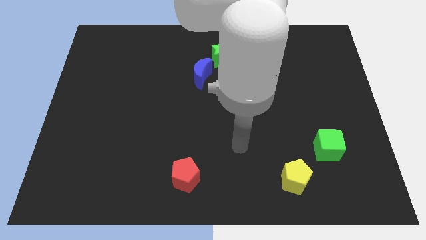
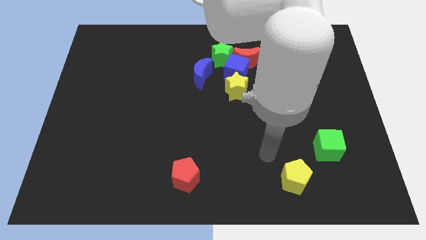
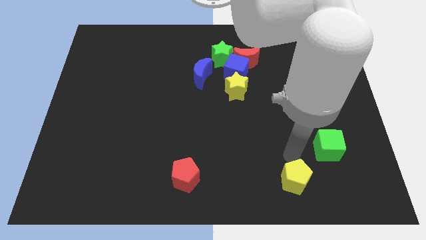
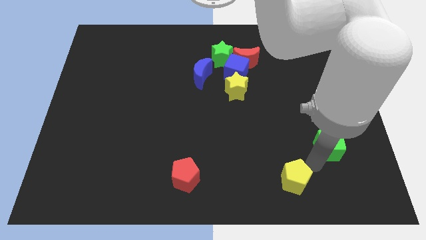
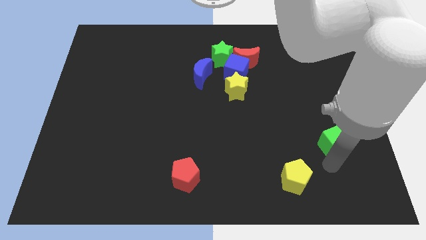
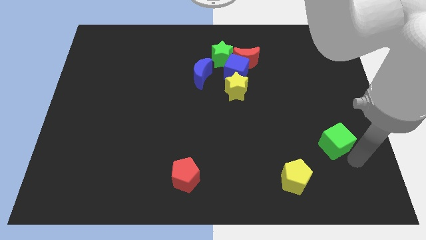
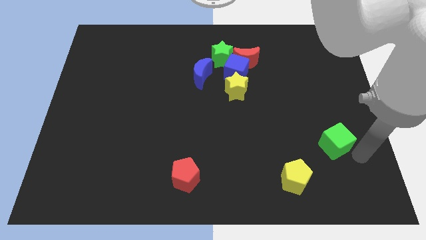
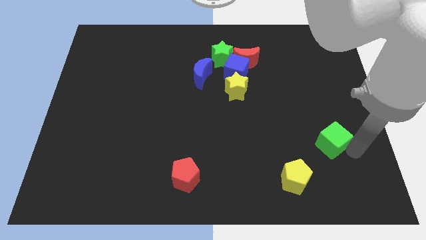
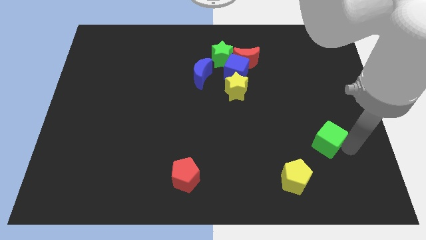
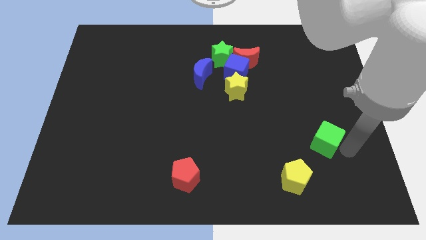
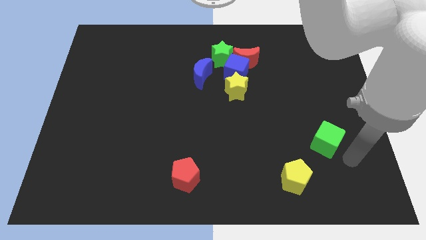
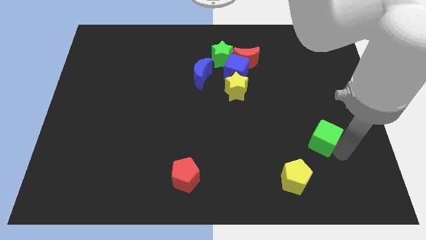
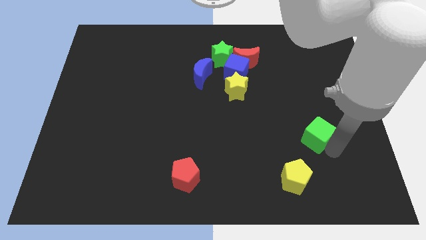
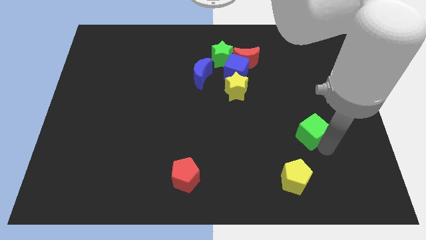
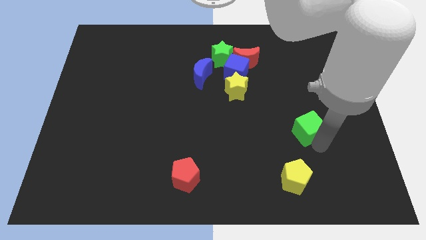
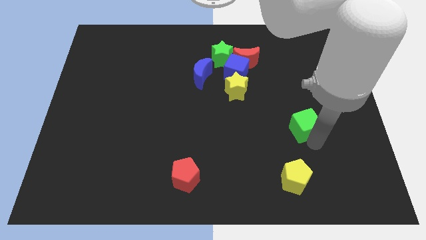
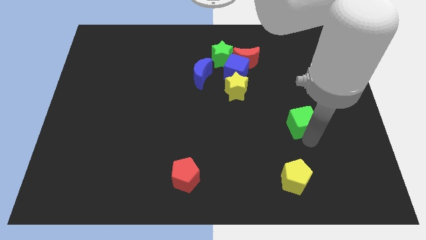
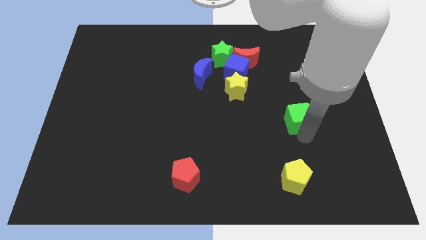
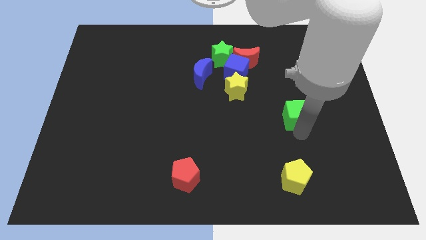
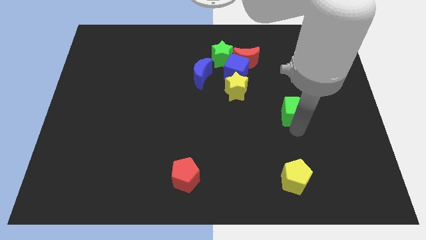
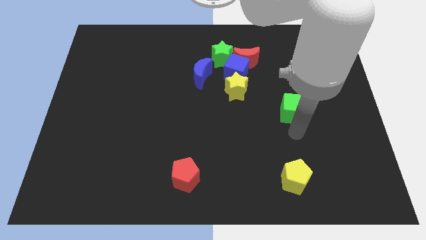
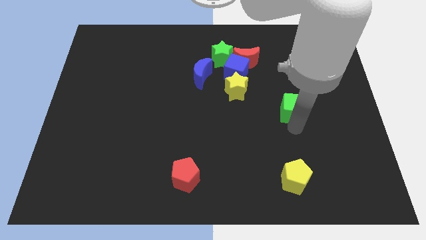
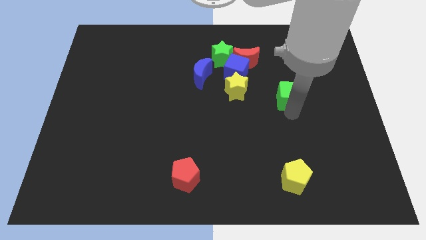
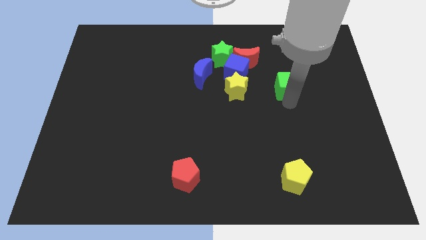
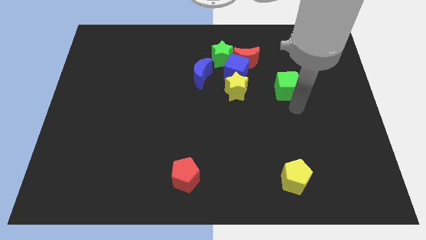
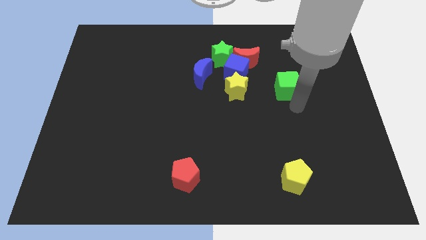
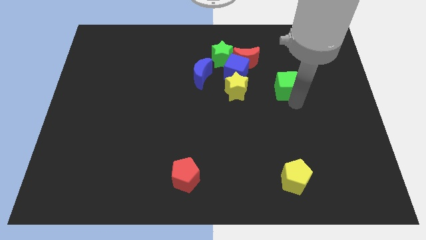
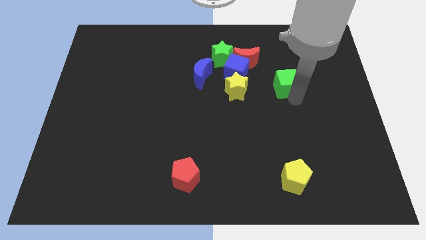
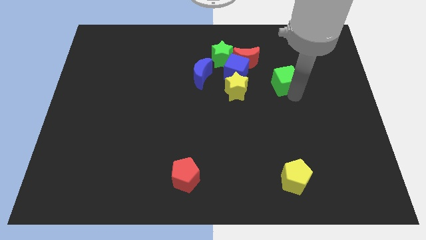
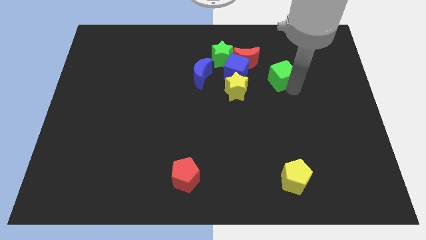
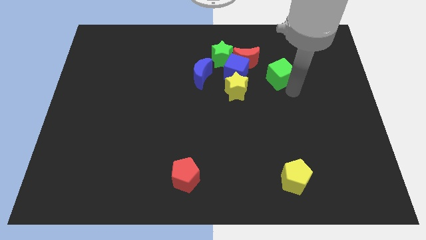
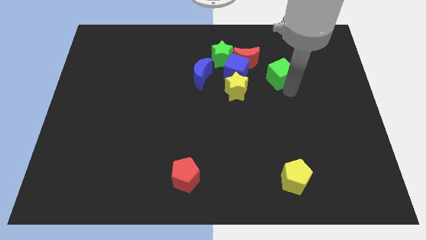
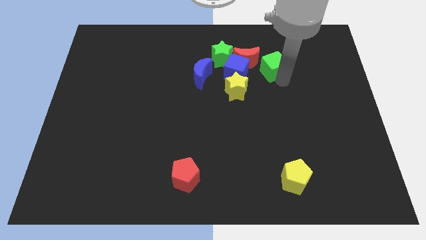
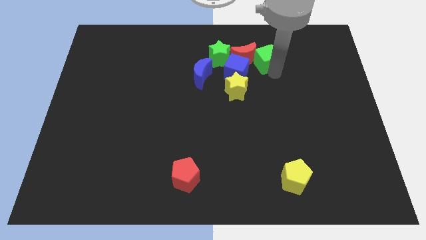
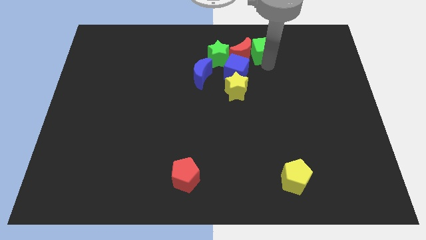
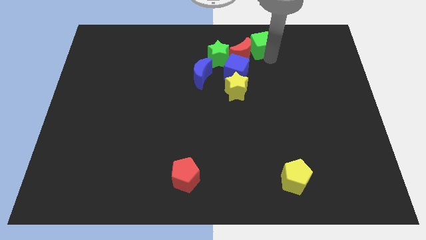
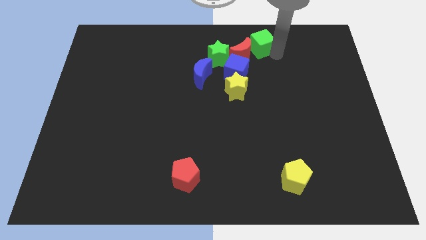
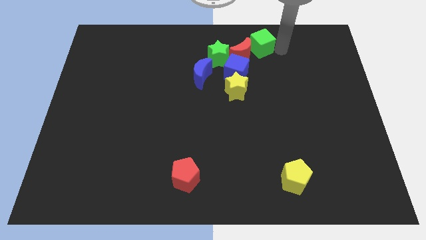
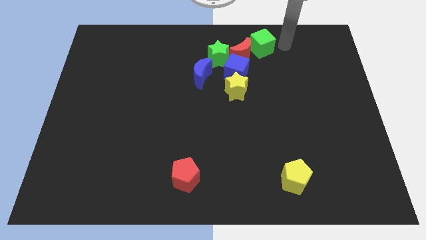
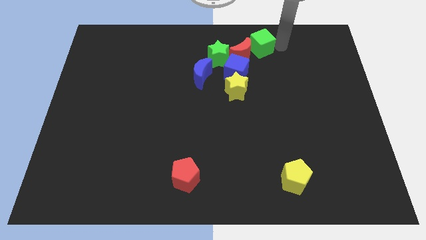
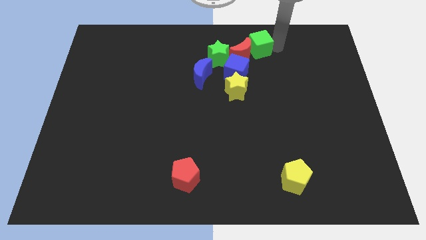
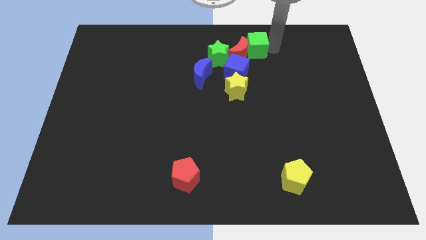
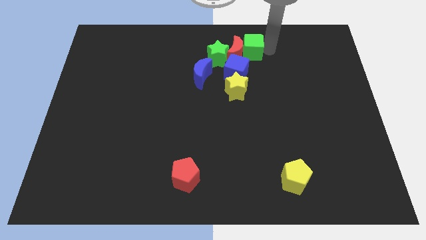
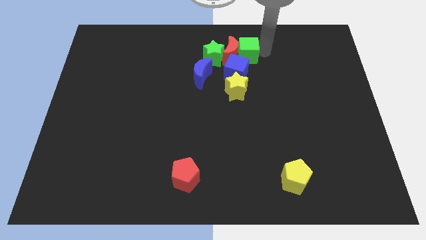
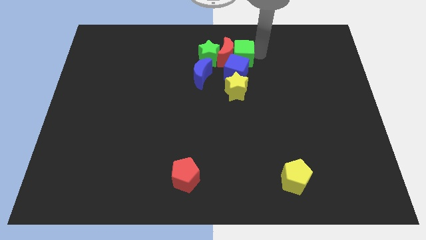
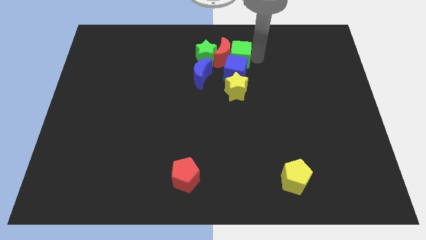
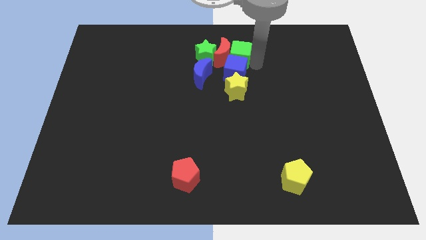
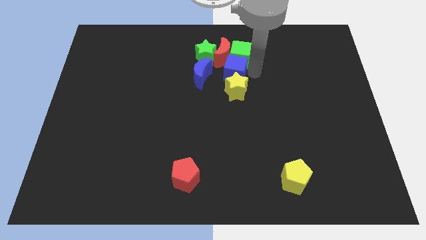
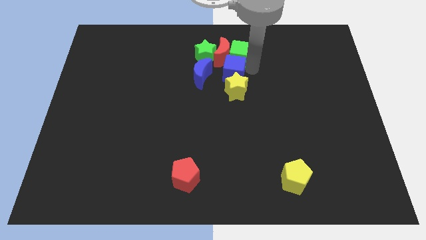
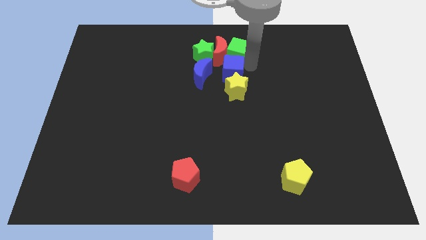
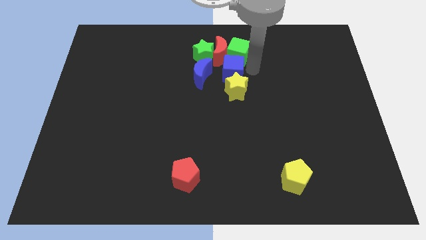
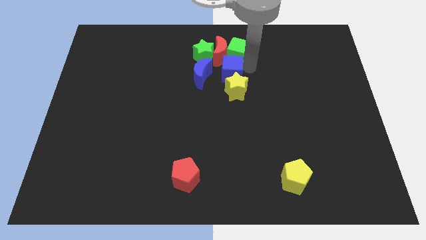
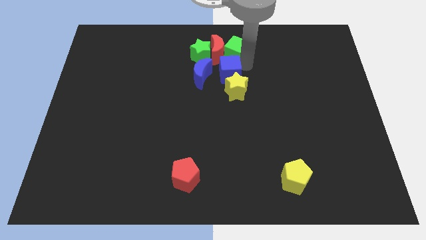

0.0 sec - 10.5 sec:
move the green cube to the towards your base
